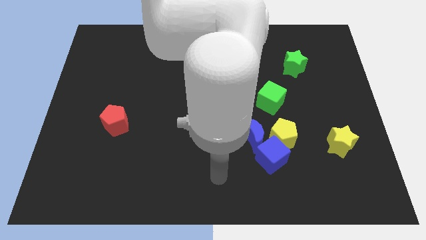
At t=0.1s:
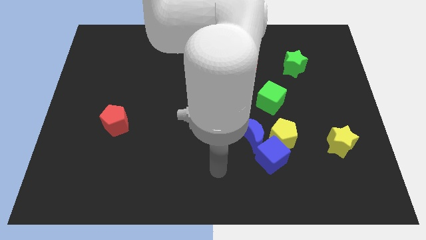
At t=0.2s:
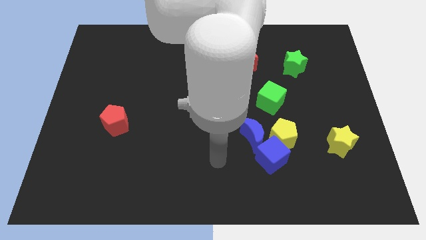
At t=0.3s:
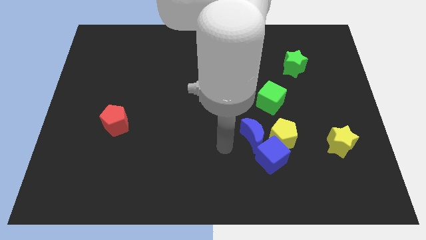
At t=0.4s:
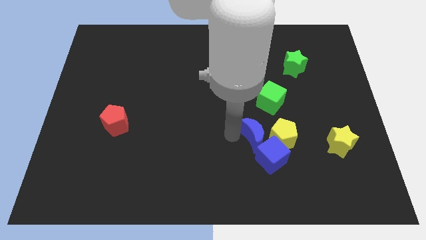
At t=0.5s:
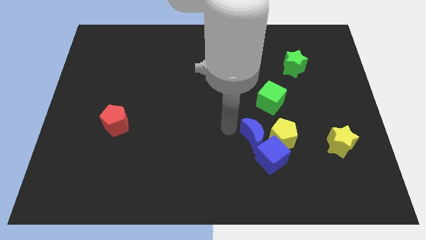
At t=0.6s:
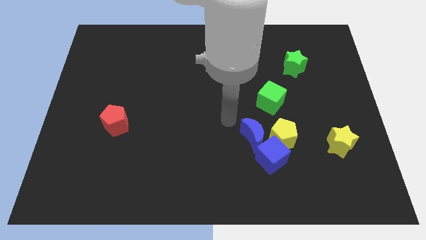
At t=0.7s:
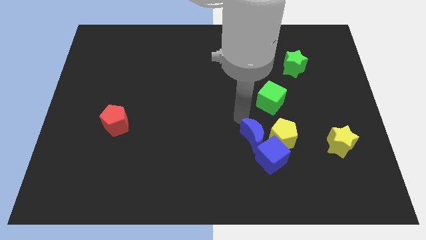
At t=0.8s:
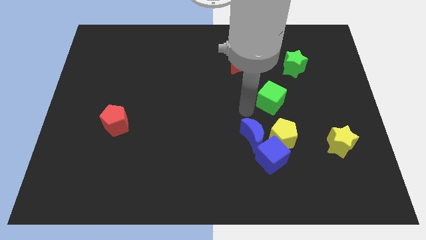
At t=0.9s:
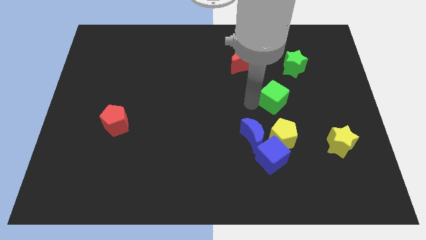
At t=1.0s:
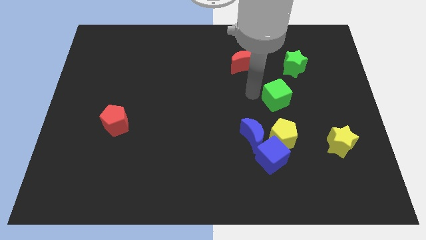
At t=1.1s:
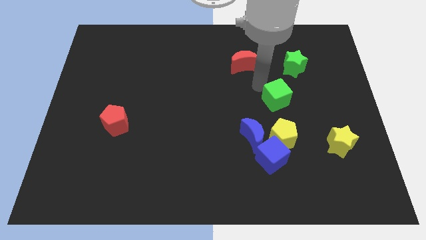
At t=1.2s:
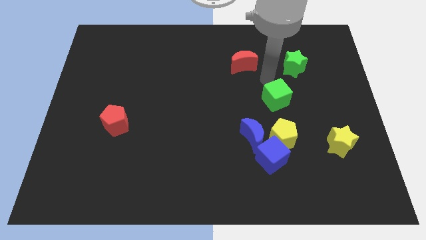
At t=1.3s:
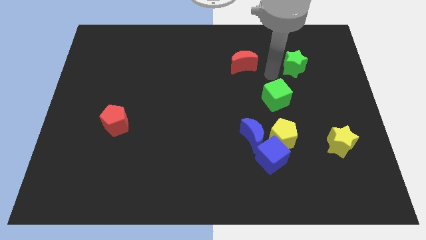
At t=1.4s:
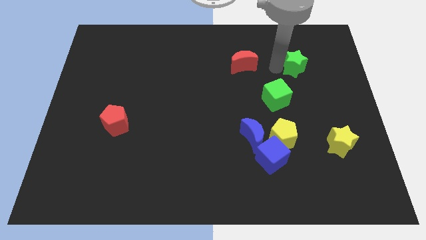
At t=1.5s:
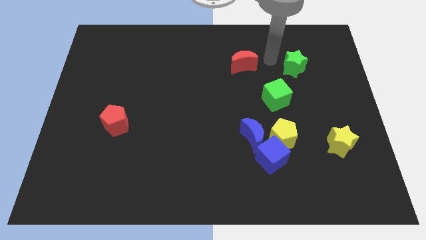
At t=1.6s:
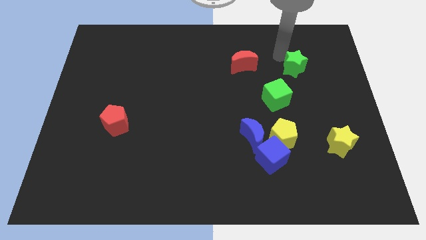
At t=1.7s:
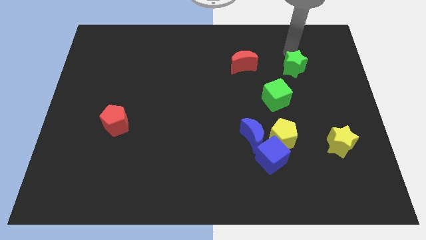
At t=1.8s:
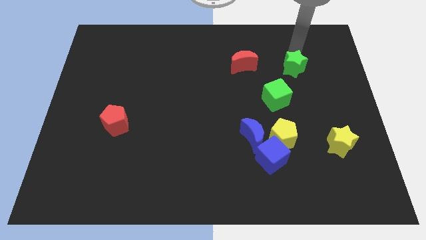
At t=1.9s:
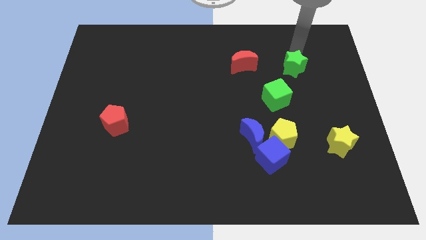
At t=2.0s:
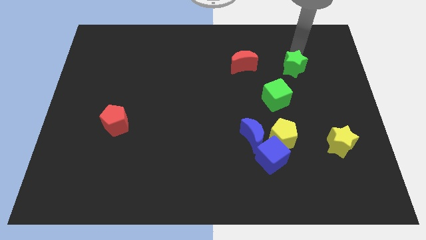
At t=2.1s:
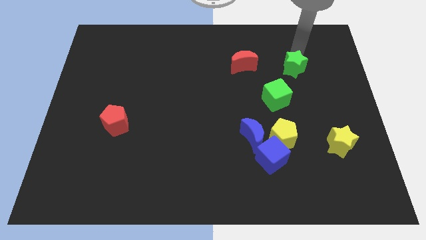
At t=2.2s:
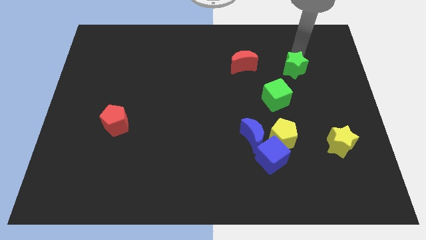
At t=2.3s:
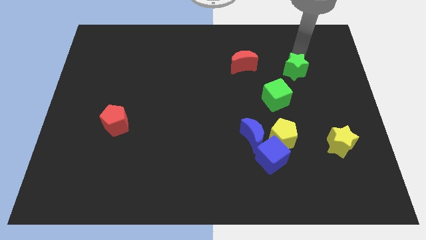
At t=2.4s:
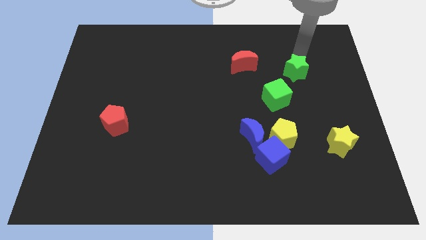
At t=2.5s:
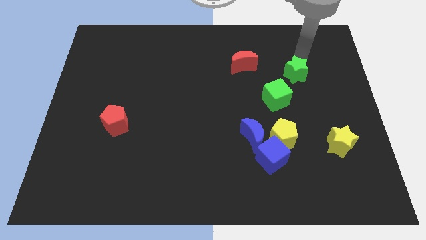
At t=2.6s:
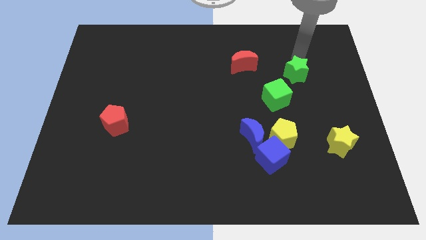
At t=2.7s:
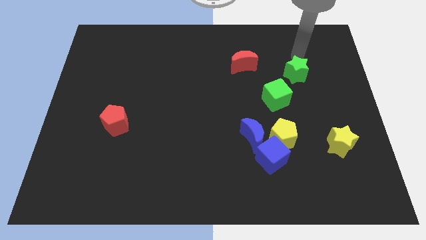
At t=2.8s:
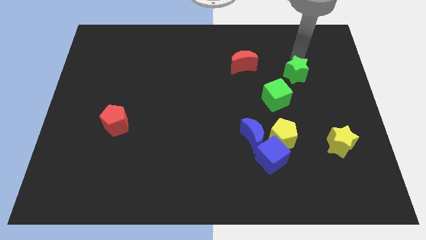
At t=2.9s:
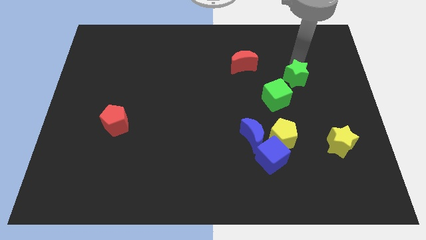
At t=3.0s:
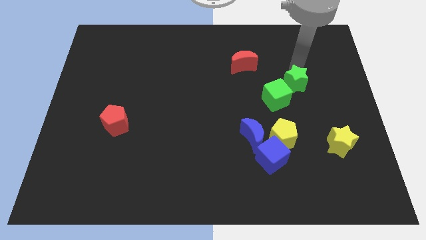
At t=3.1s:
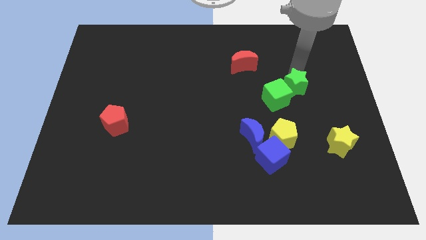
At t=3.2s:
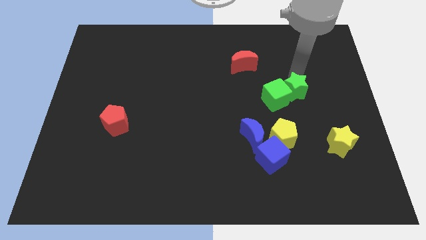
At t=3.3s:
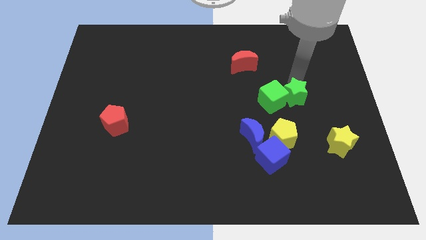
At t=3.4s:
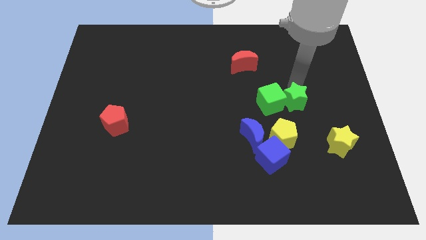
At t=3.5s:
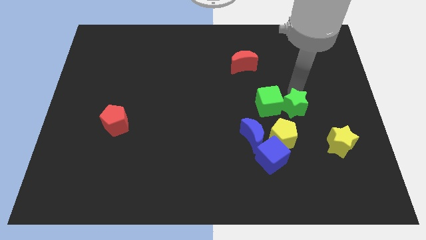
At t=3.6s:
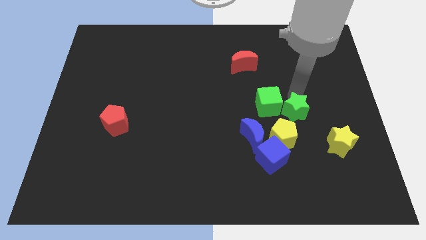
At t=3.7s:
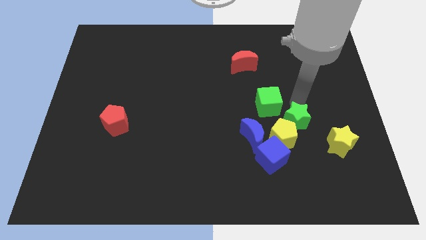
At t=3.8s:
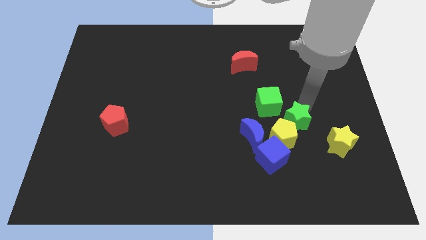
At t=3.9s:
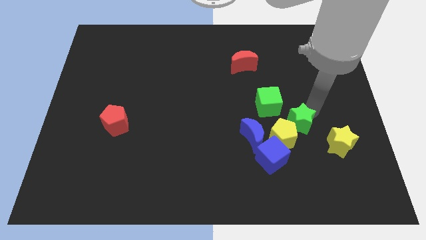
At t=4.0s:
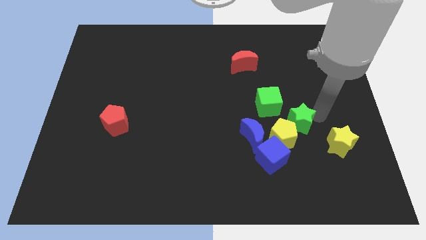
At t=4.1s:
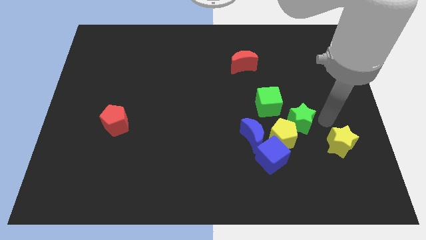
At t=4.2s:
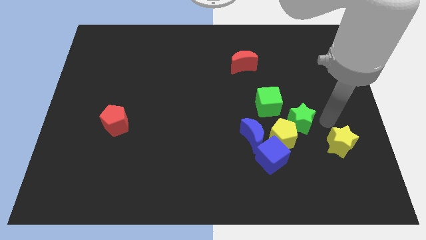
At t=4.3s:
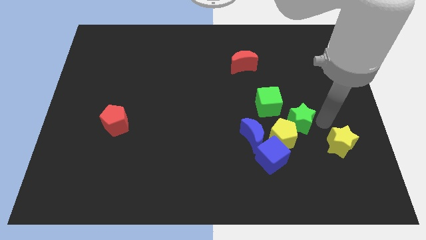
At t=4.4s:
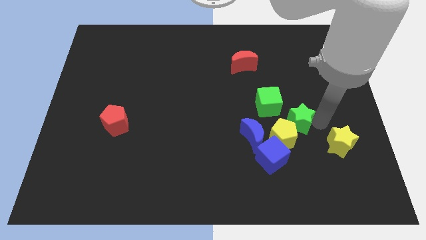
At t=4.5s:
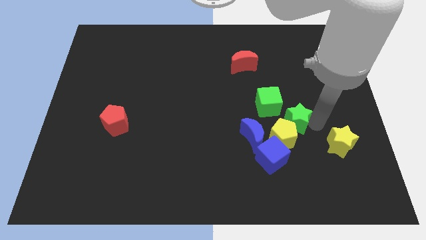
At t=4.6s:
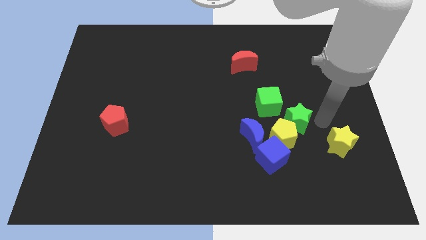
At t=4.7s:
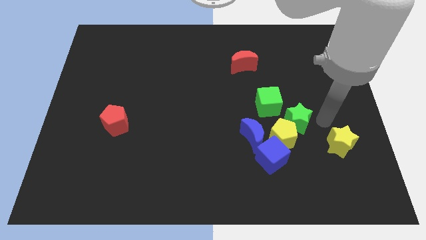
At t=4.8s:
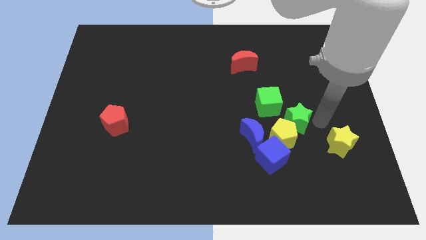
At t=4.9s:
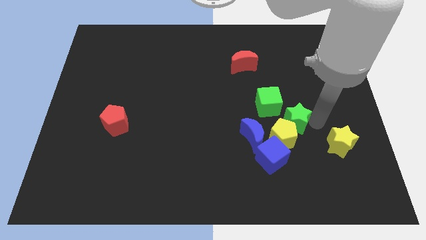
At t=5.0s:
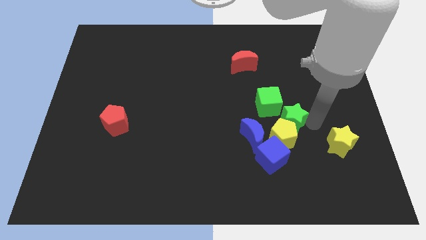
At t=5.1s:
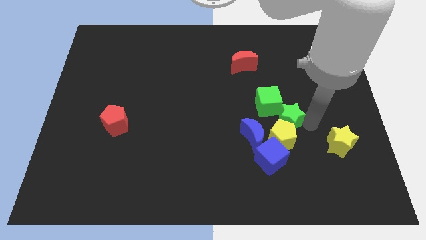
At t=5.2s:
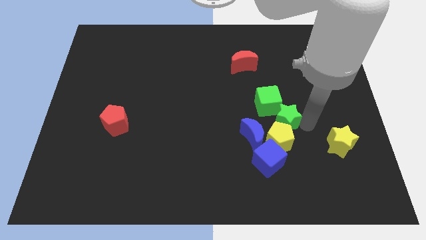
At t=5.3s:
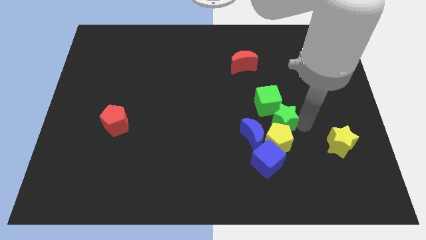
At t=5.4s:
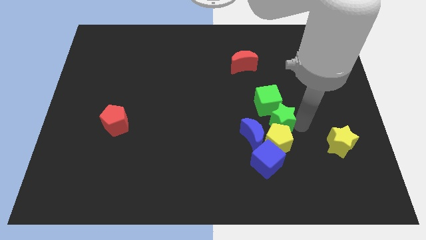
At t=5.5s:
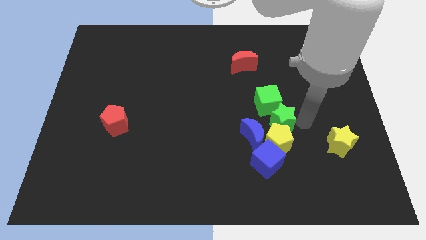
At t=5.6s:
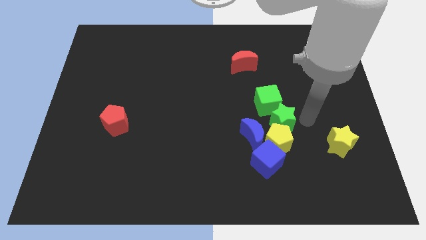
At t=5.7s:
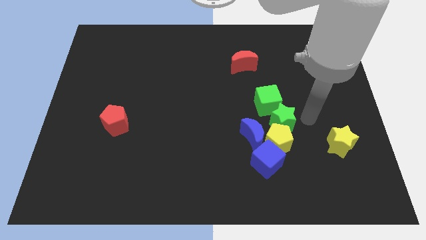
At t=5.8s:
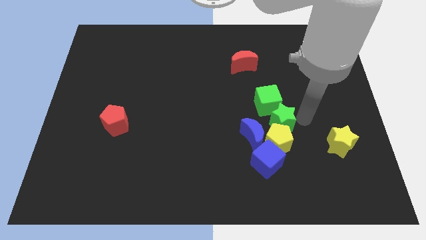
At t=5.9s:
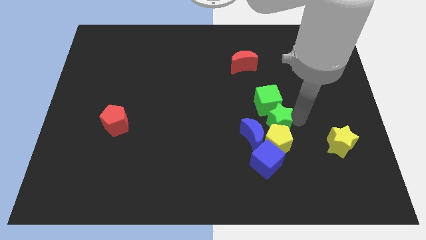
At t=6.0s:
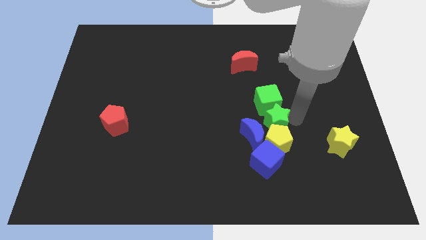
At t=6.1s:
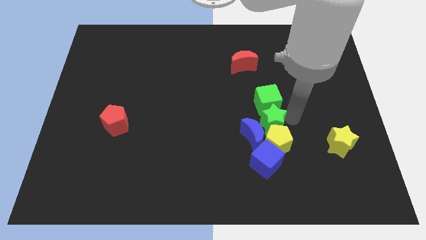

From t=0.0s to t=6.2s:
move the green star to the blue moon

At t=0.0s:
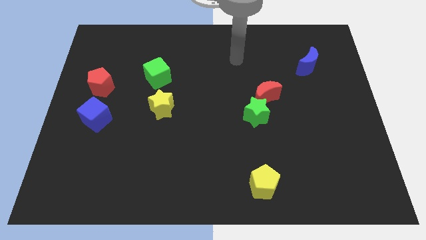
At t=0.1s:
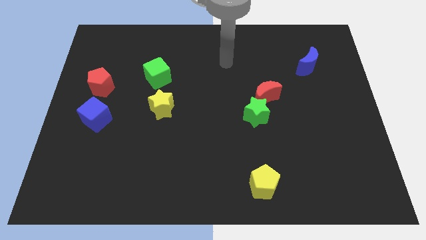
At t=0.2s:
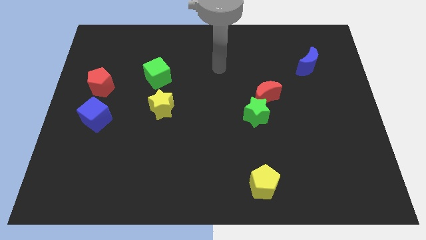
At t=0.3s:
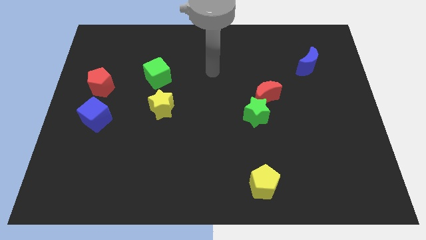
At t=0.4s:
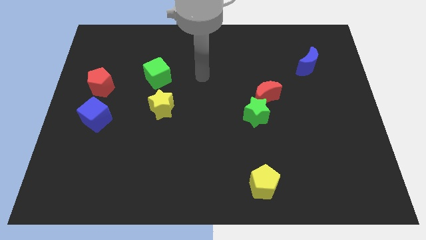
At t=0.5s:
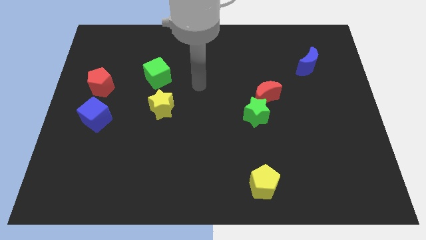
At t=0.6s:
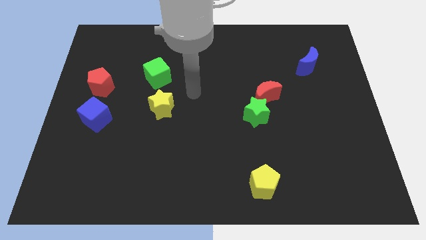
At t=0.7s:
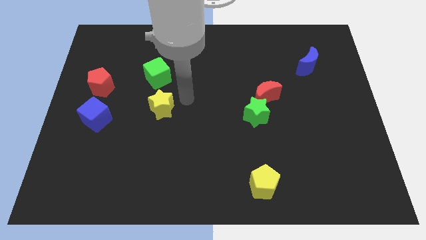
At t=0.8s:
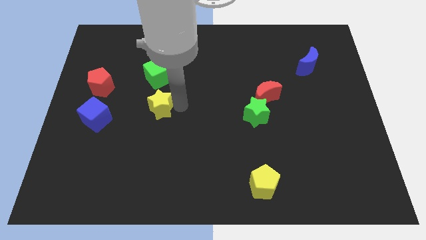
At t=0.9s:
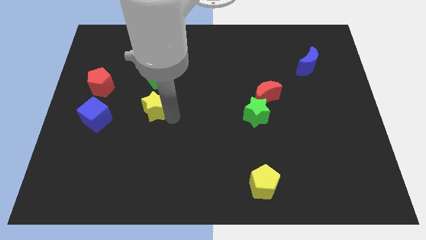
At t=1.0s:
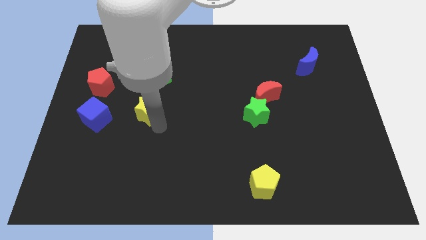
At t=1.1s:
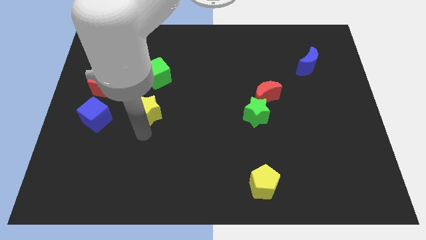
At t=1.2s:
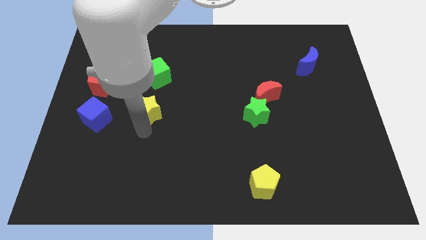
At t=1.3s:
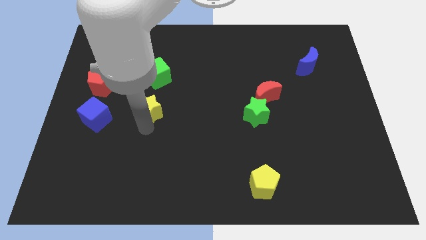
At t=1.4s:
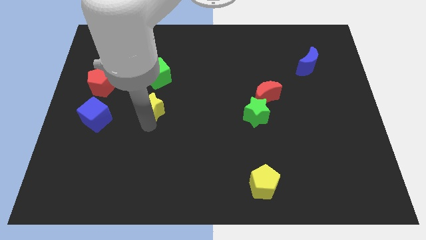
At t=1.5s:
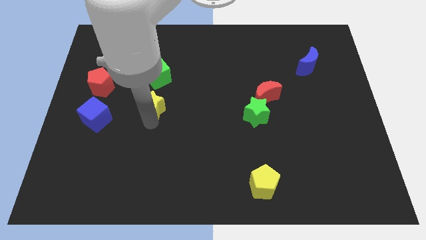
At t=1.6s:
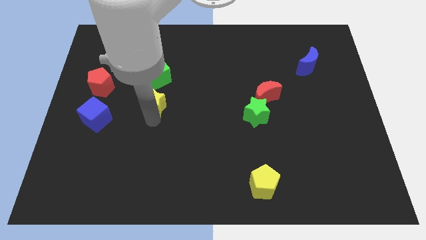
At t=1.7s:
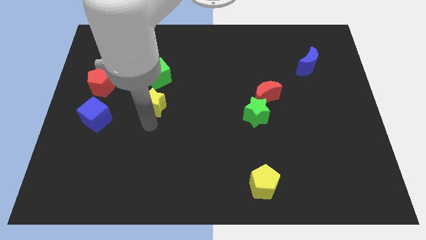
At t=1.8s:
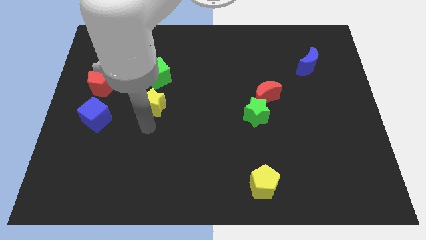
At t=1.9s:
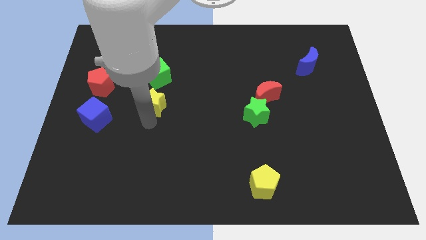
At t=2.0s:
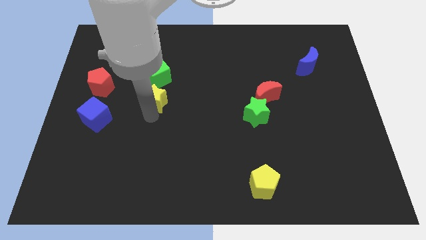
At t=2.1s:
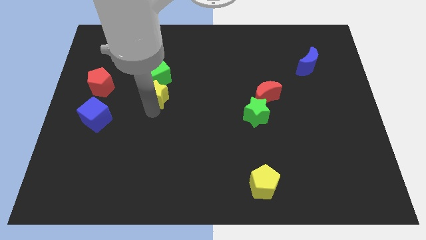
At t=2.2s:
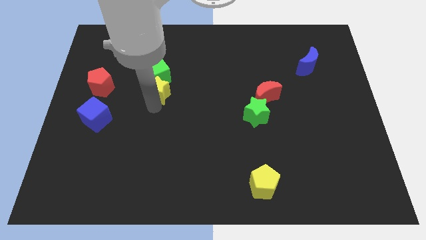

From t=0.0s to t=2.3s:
slide the yellow star close to the green cube
